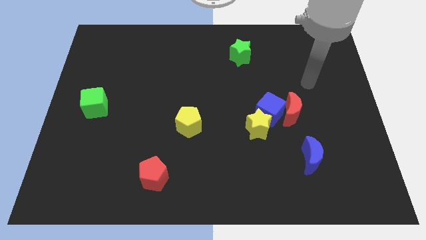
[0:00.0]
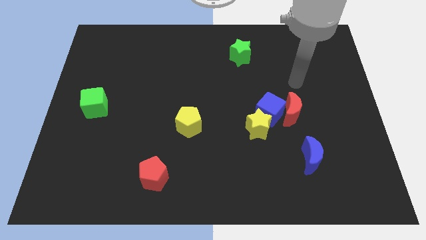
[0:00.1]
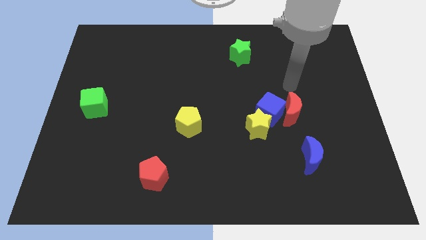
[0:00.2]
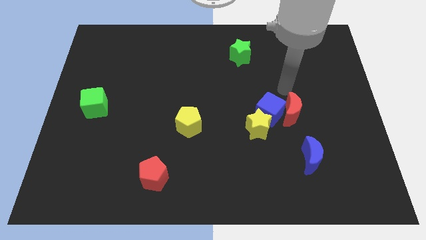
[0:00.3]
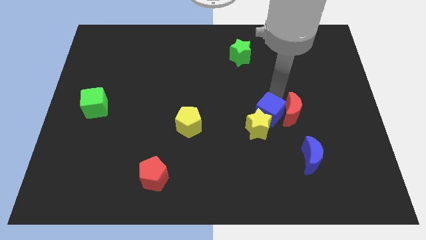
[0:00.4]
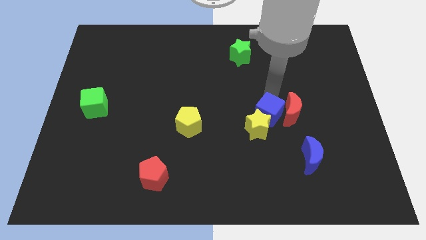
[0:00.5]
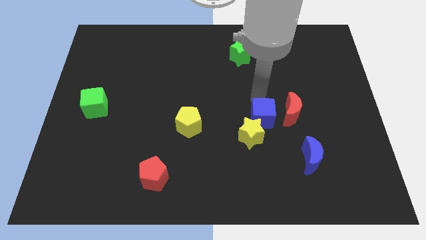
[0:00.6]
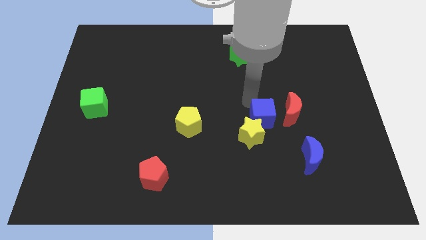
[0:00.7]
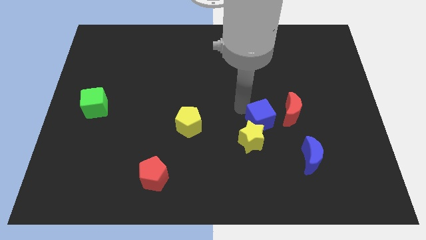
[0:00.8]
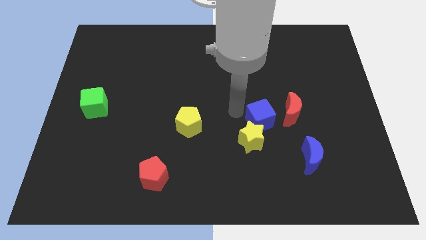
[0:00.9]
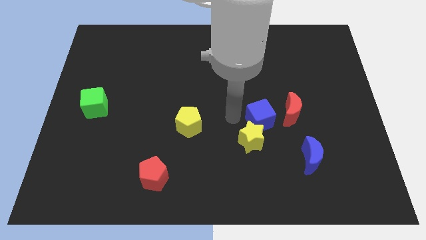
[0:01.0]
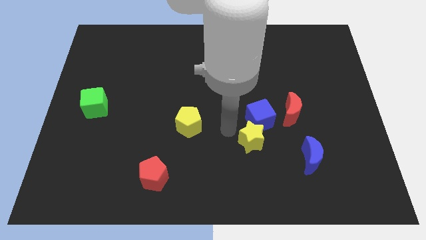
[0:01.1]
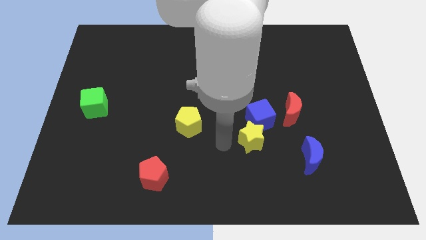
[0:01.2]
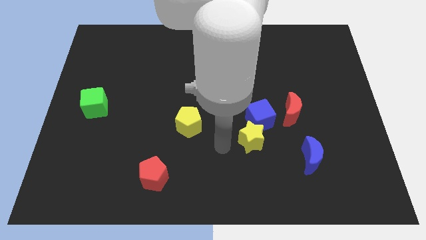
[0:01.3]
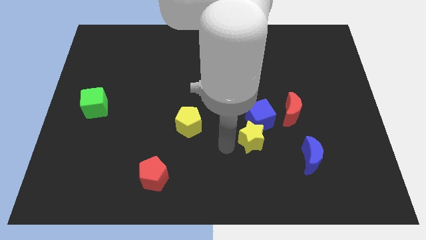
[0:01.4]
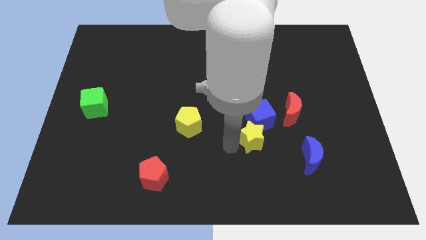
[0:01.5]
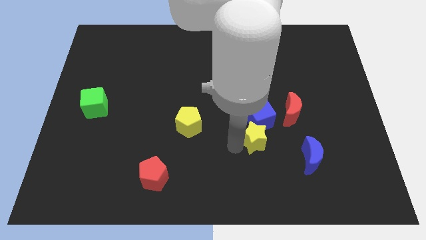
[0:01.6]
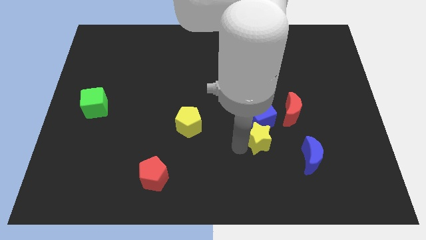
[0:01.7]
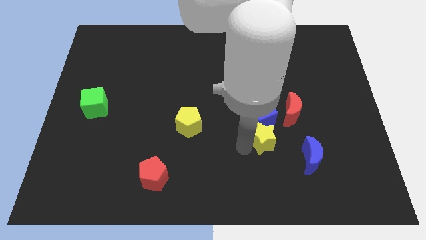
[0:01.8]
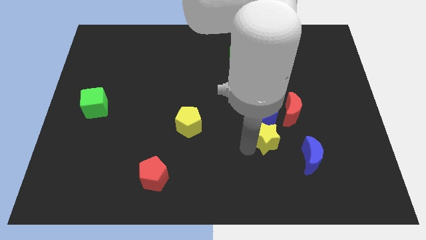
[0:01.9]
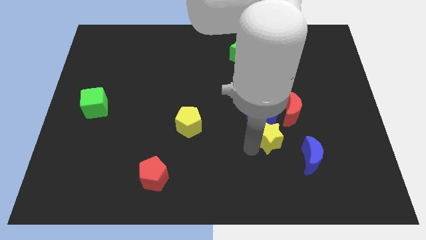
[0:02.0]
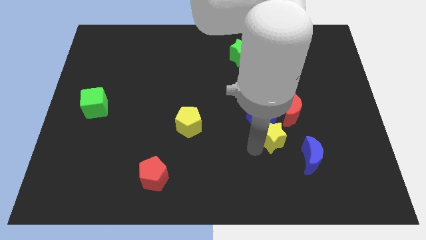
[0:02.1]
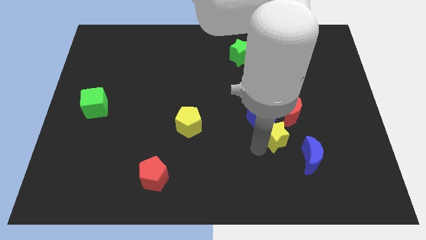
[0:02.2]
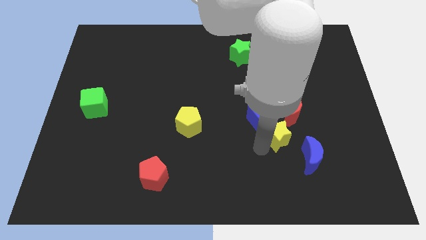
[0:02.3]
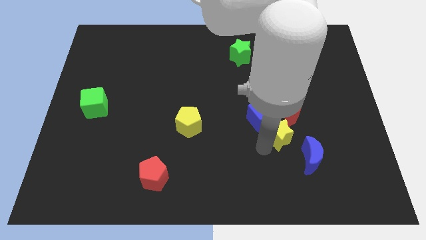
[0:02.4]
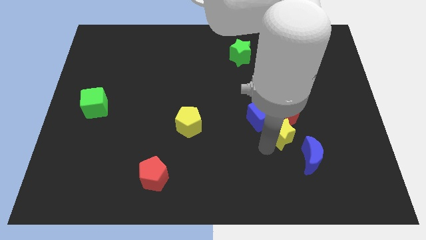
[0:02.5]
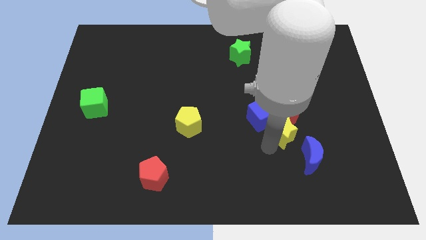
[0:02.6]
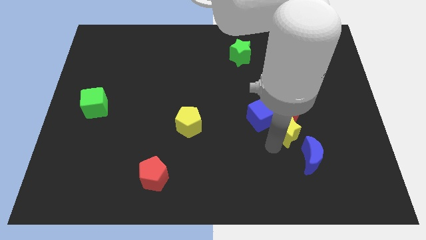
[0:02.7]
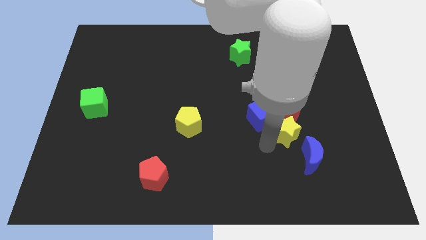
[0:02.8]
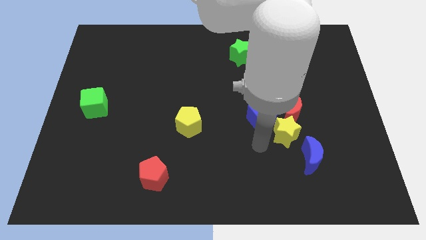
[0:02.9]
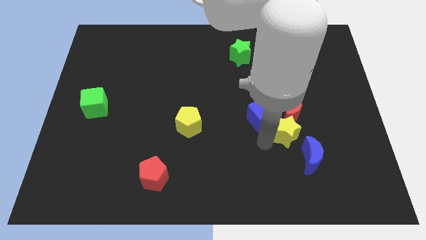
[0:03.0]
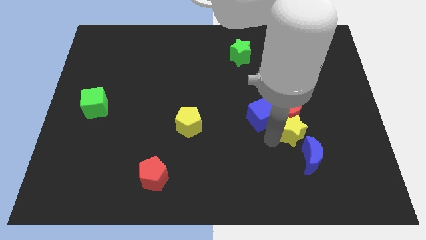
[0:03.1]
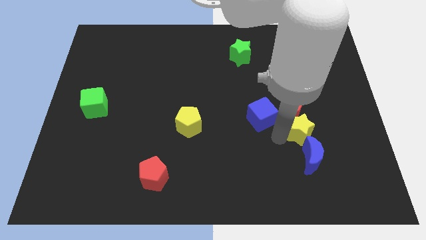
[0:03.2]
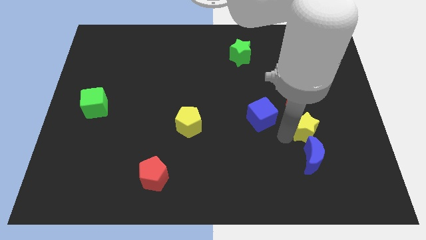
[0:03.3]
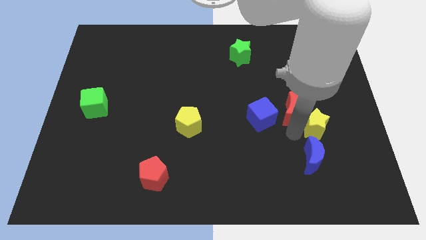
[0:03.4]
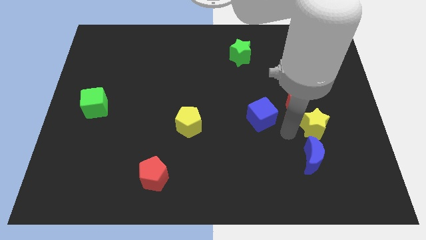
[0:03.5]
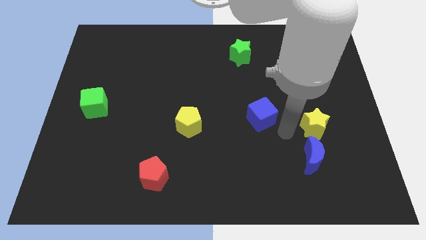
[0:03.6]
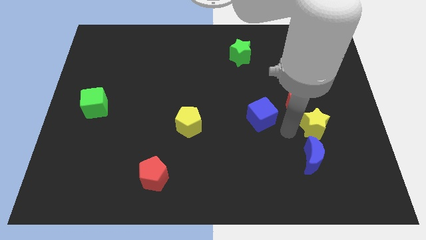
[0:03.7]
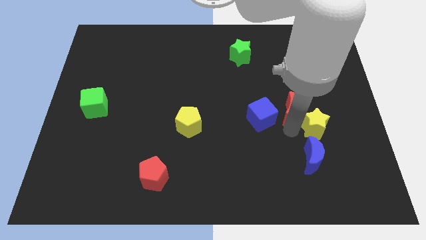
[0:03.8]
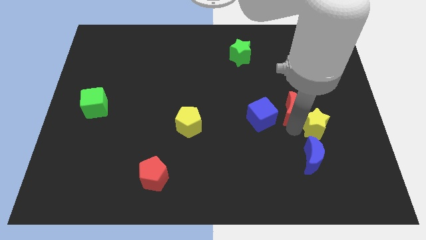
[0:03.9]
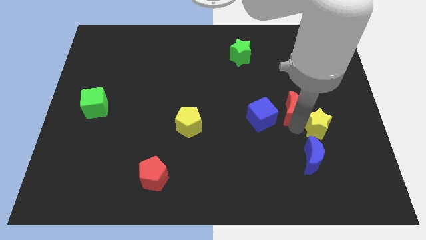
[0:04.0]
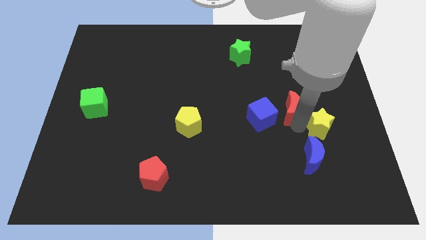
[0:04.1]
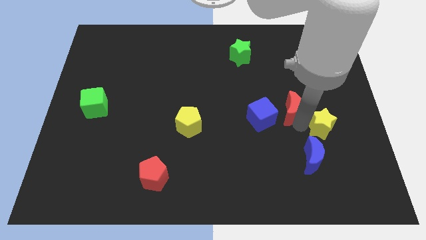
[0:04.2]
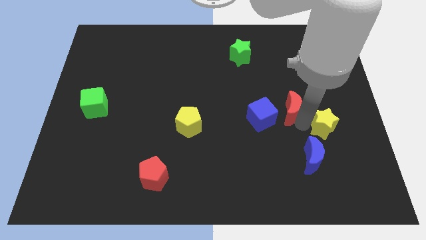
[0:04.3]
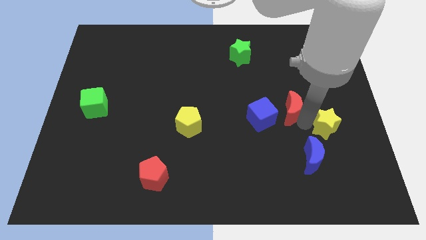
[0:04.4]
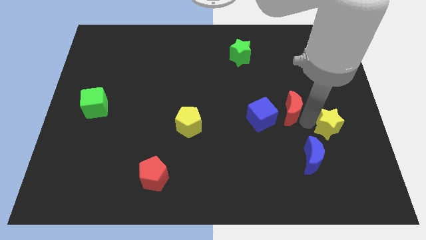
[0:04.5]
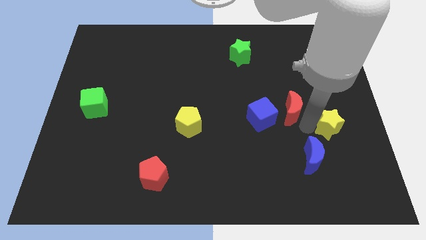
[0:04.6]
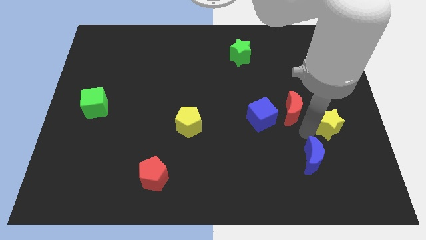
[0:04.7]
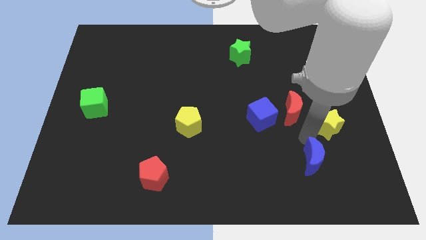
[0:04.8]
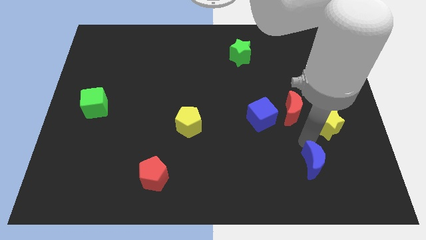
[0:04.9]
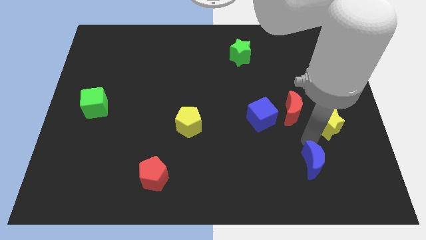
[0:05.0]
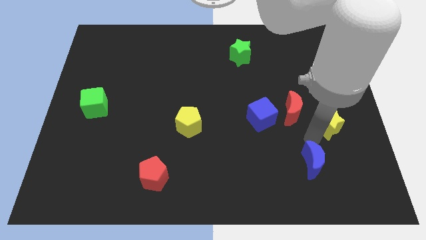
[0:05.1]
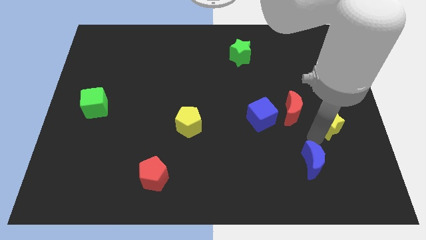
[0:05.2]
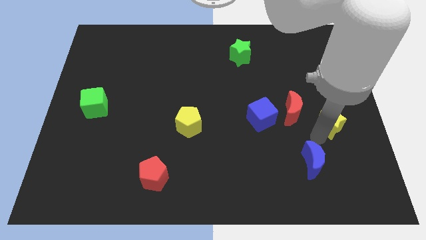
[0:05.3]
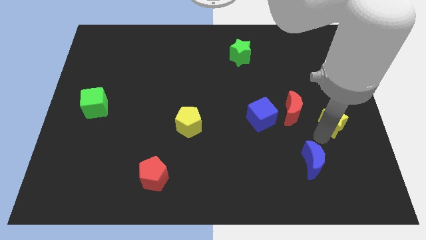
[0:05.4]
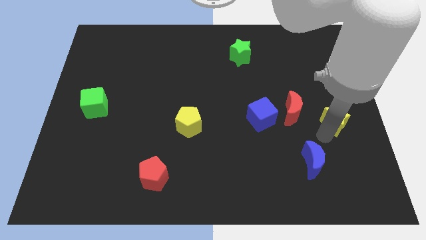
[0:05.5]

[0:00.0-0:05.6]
slide the yellow star to the right side
